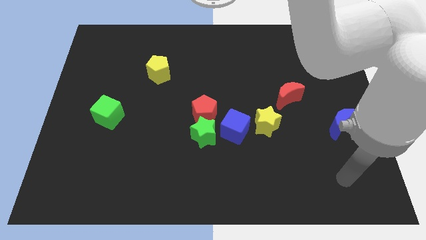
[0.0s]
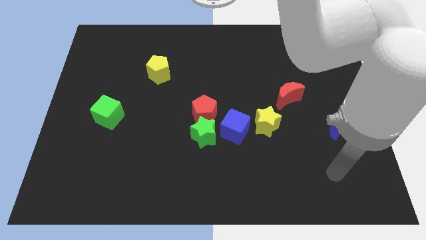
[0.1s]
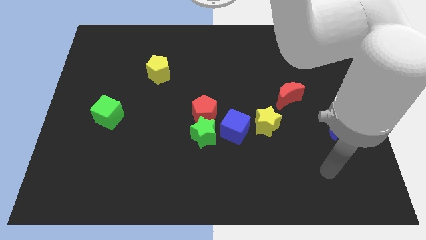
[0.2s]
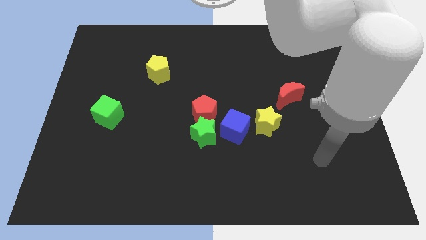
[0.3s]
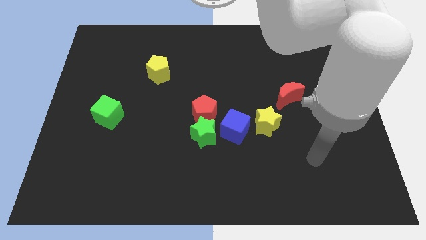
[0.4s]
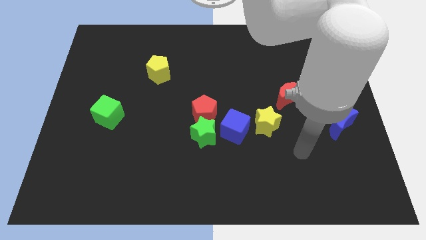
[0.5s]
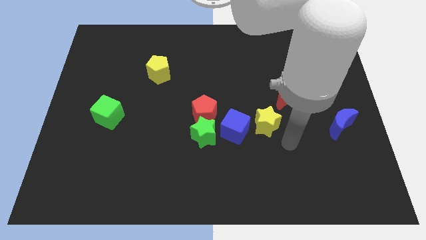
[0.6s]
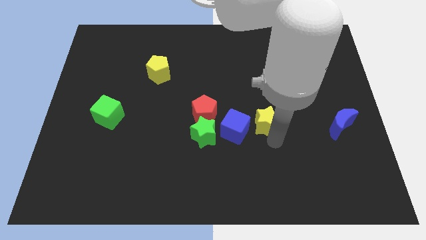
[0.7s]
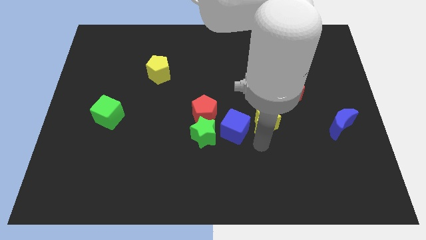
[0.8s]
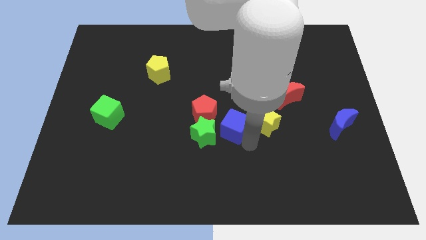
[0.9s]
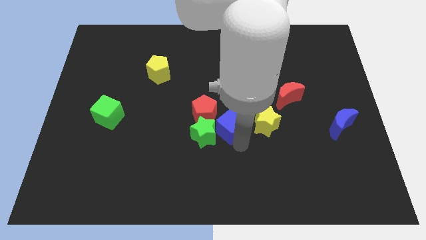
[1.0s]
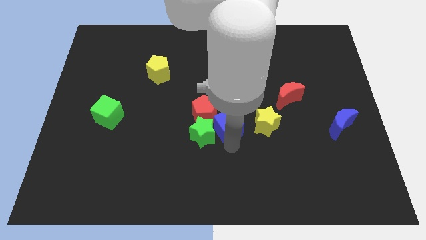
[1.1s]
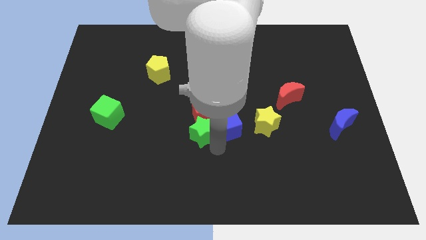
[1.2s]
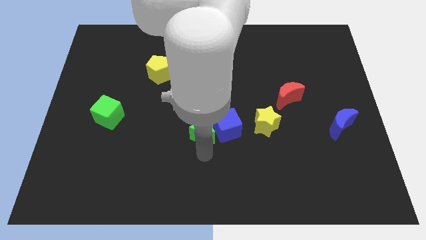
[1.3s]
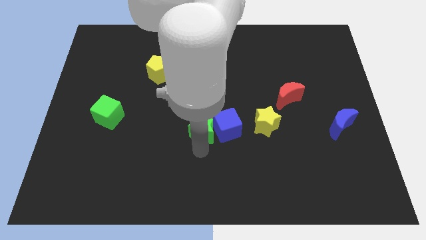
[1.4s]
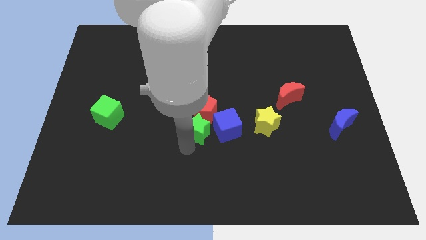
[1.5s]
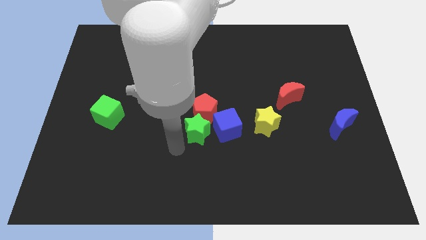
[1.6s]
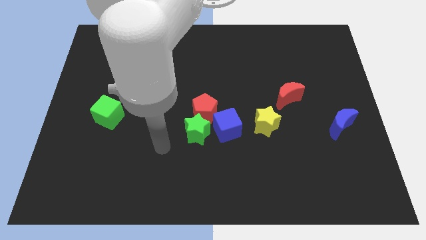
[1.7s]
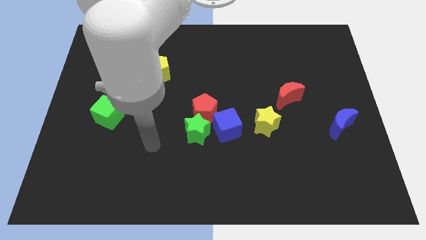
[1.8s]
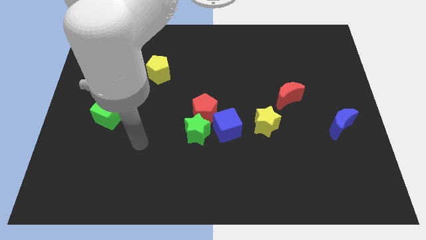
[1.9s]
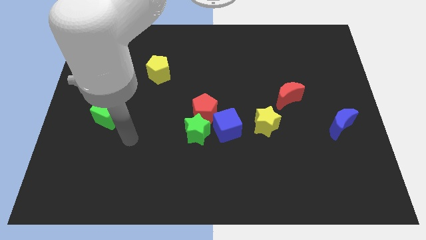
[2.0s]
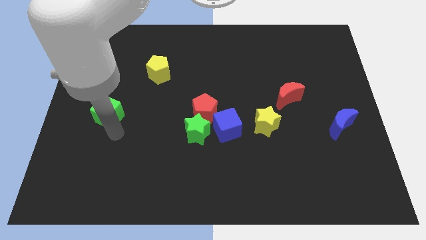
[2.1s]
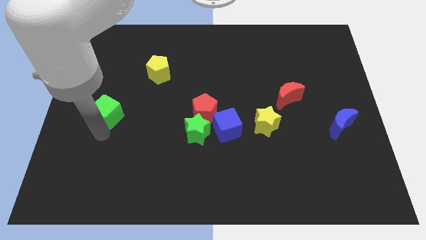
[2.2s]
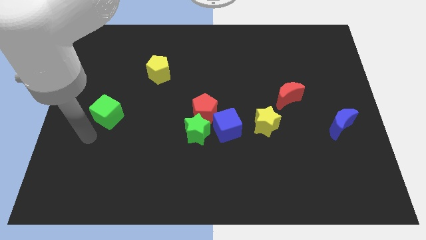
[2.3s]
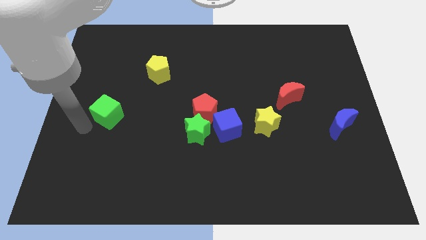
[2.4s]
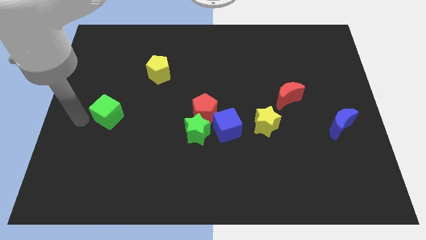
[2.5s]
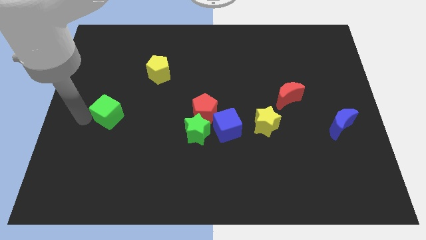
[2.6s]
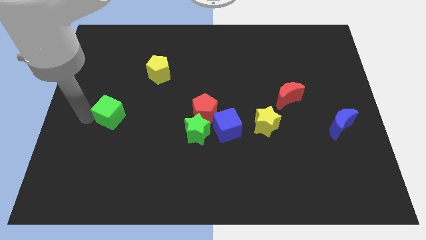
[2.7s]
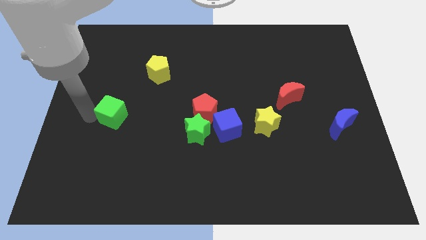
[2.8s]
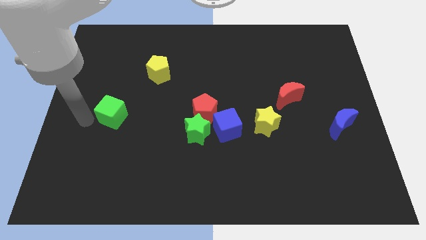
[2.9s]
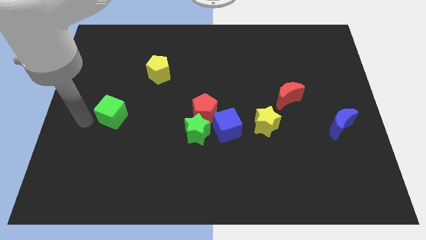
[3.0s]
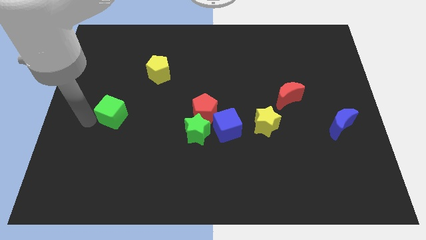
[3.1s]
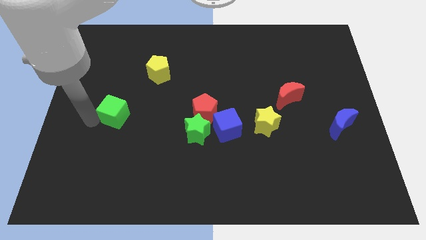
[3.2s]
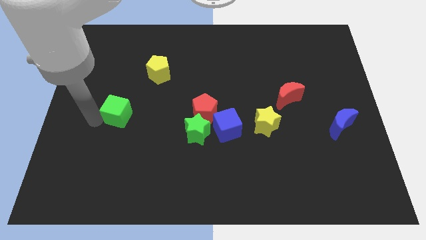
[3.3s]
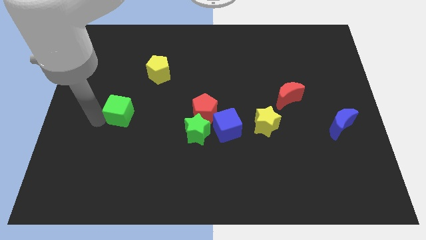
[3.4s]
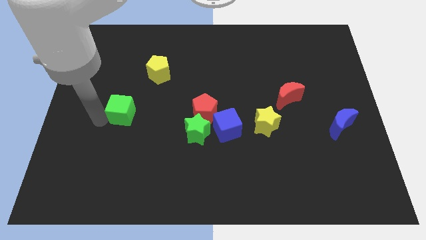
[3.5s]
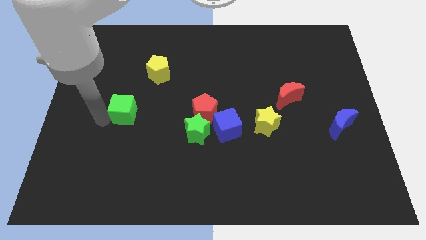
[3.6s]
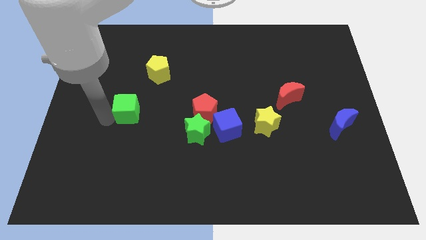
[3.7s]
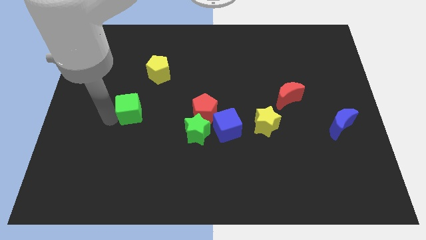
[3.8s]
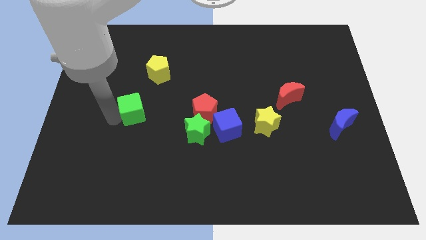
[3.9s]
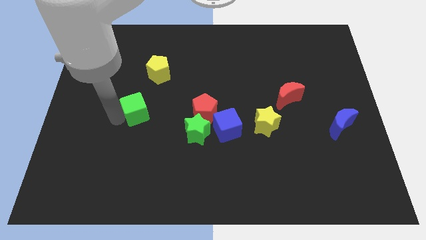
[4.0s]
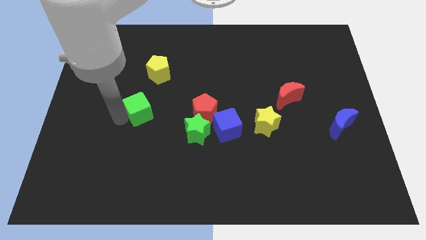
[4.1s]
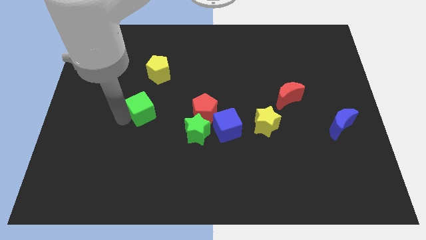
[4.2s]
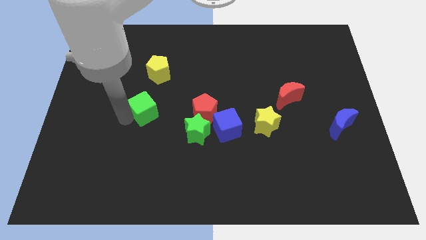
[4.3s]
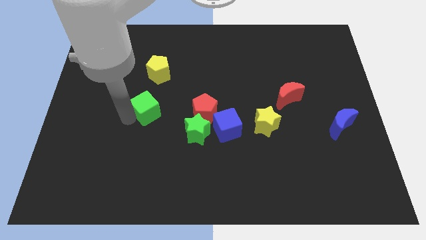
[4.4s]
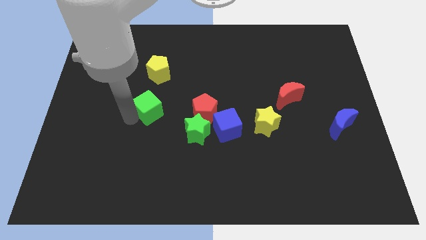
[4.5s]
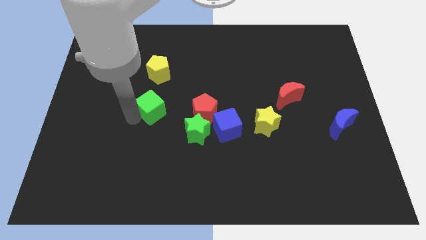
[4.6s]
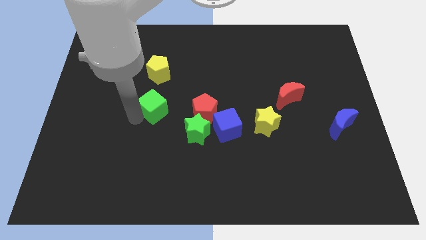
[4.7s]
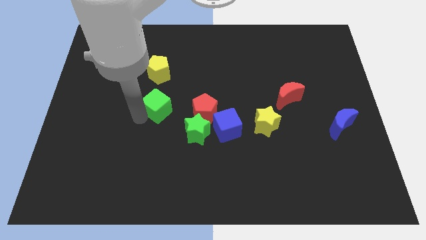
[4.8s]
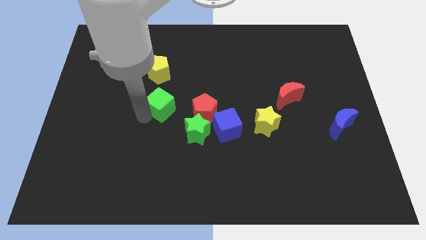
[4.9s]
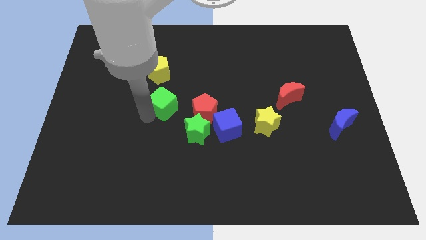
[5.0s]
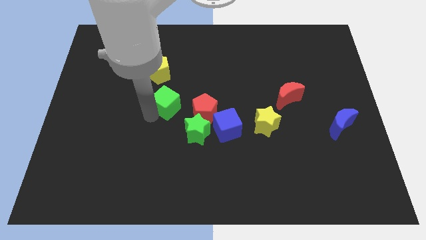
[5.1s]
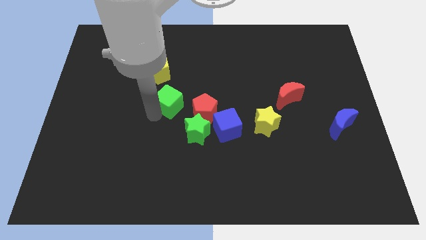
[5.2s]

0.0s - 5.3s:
put the green cube to the bottom right of the yellow pentagon

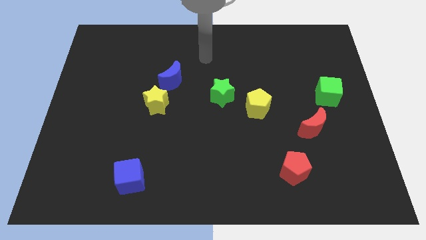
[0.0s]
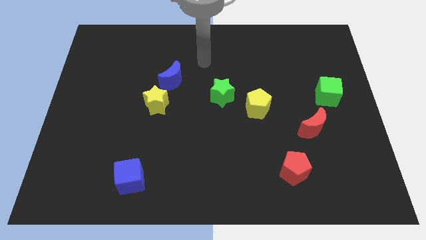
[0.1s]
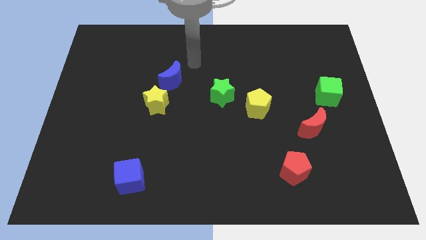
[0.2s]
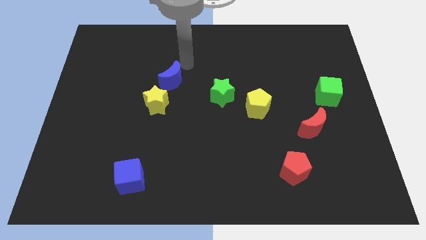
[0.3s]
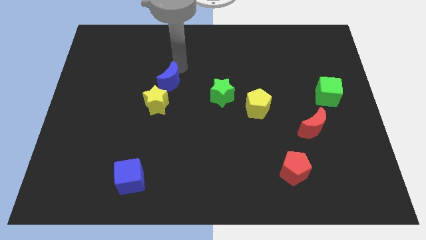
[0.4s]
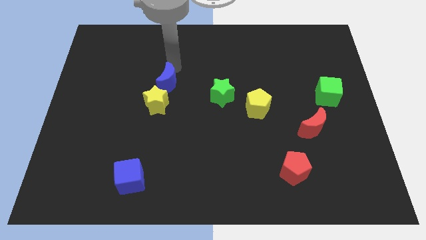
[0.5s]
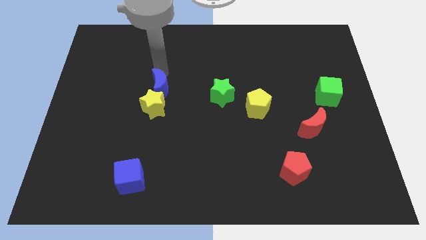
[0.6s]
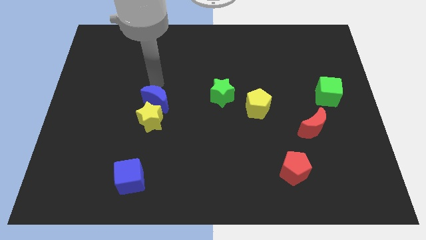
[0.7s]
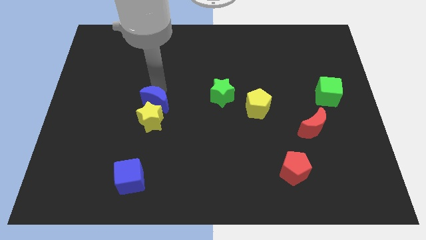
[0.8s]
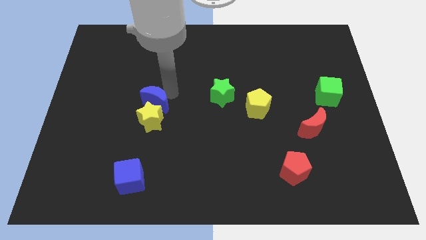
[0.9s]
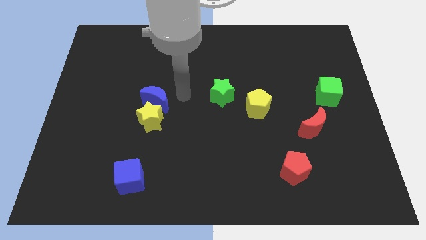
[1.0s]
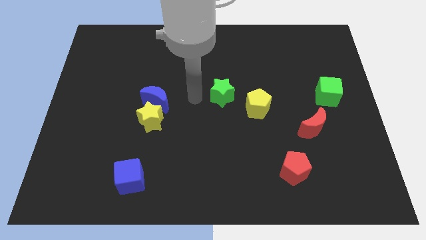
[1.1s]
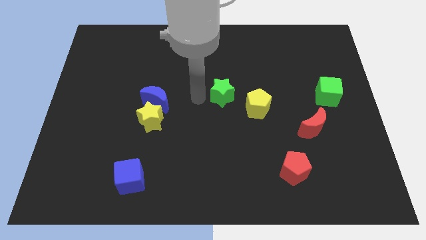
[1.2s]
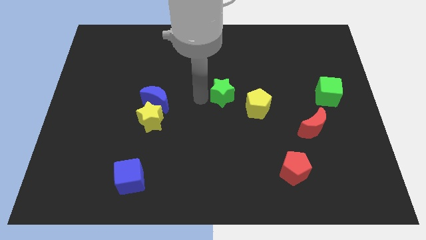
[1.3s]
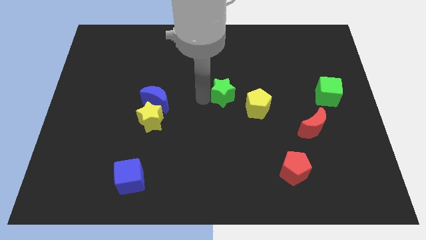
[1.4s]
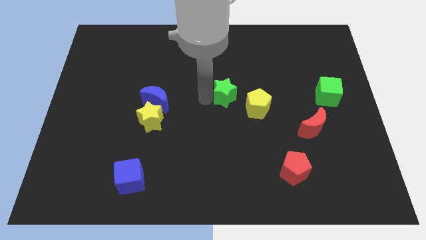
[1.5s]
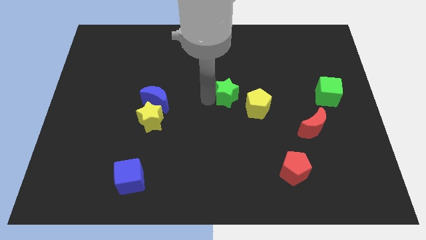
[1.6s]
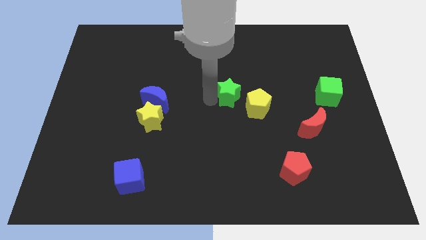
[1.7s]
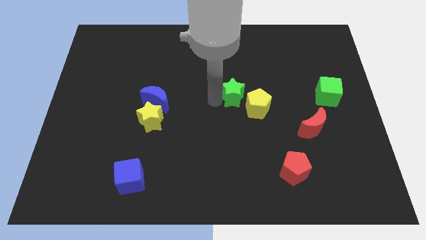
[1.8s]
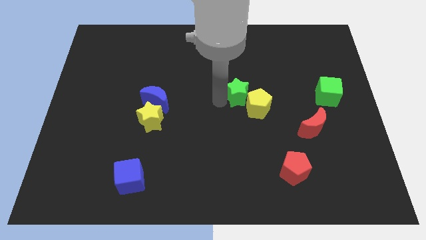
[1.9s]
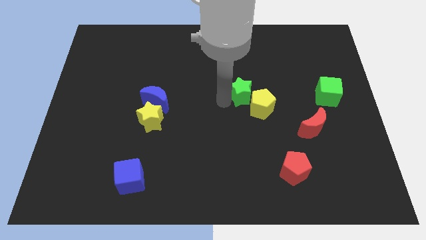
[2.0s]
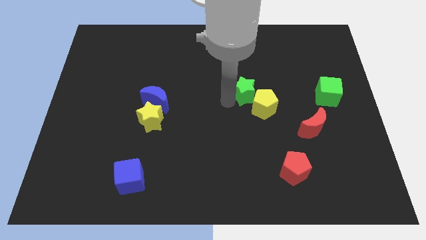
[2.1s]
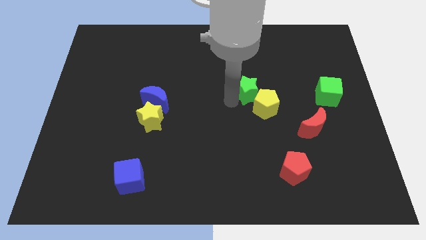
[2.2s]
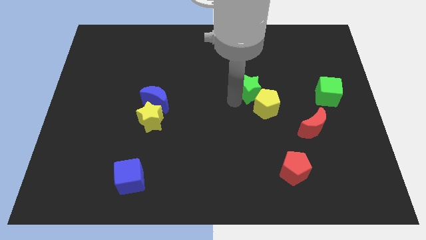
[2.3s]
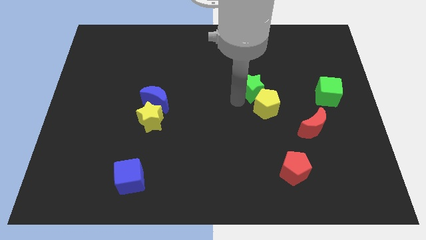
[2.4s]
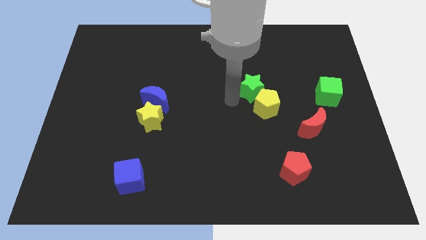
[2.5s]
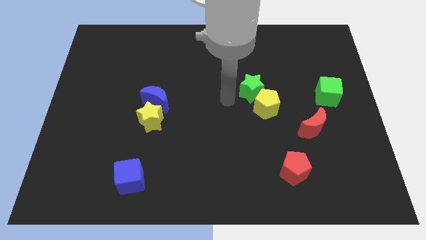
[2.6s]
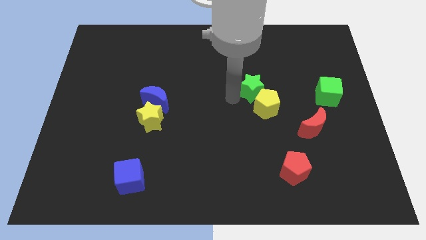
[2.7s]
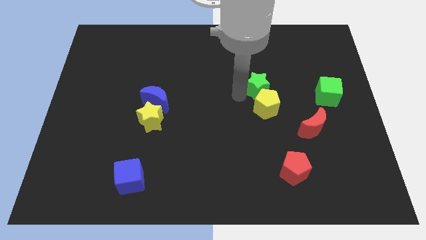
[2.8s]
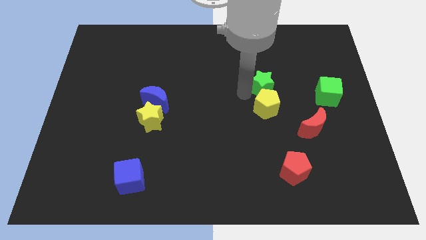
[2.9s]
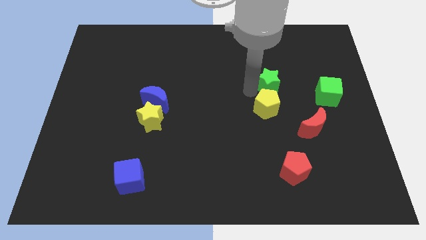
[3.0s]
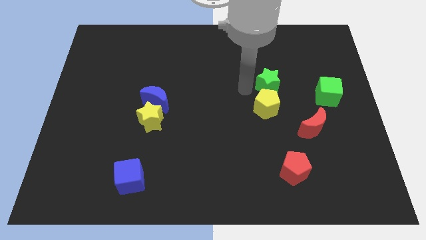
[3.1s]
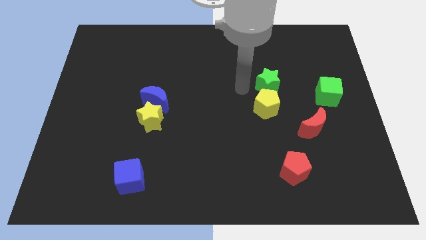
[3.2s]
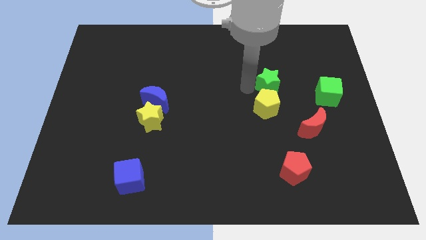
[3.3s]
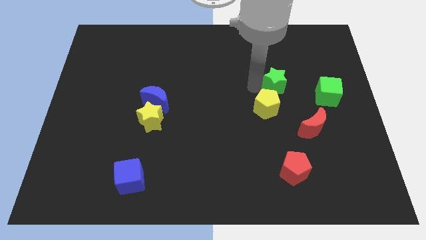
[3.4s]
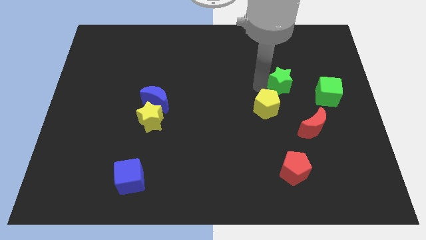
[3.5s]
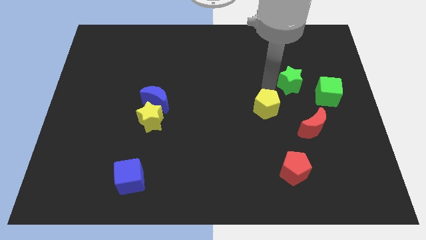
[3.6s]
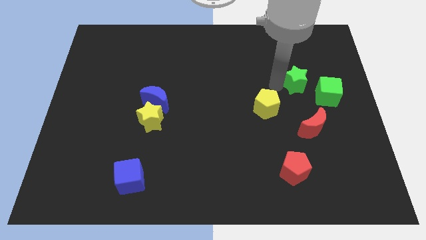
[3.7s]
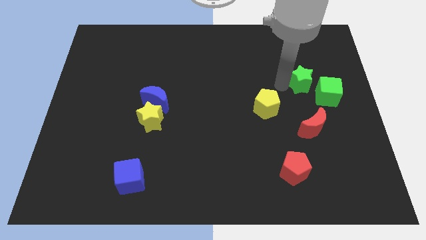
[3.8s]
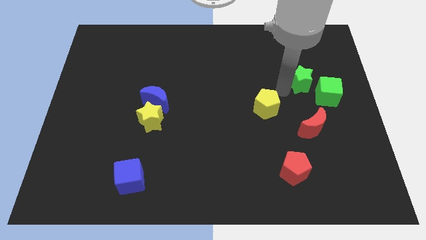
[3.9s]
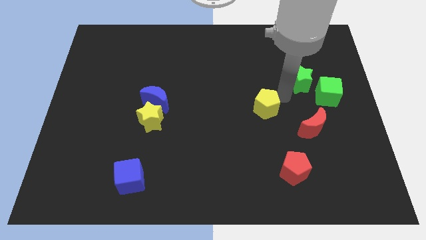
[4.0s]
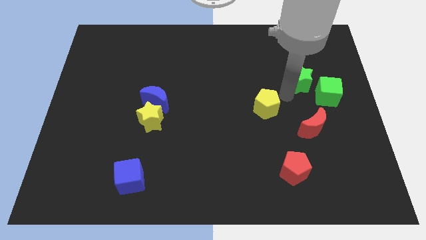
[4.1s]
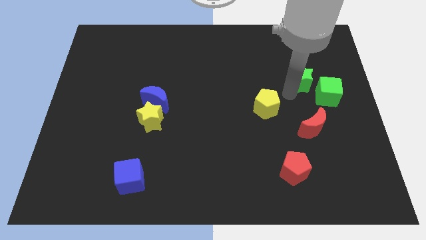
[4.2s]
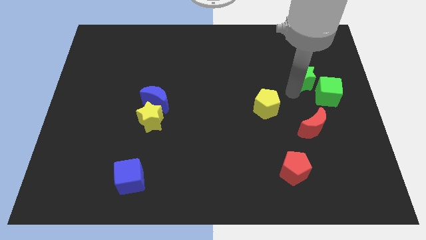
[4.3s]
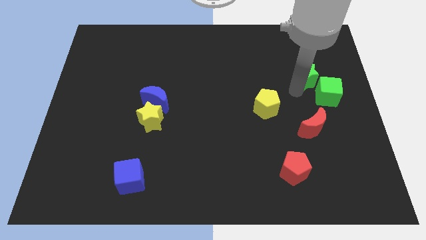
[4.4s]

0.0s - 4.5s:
move the green star above the green cube
